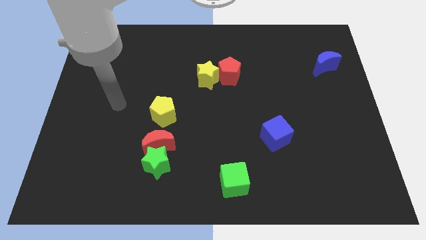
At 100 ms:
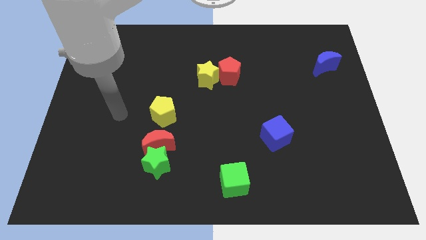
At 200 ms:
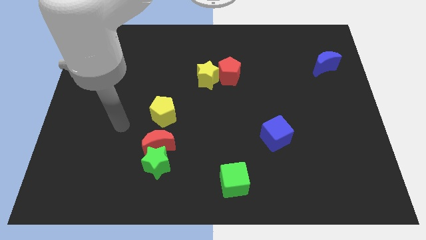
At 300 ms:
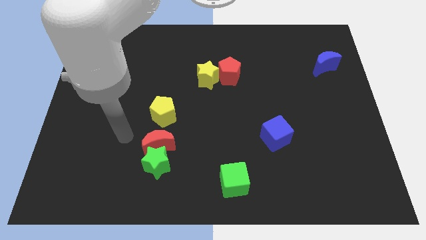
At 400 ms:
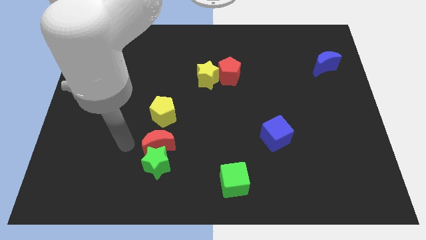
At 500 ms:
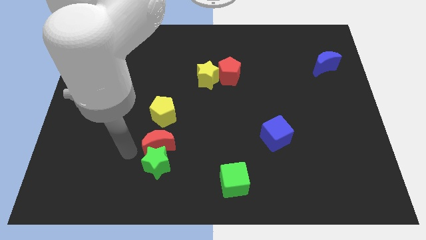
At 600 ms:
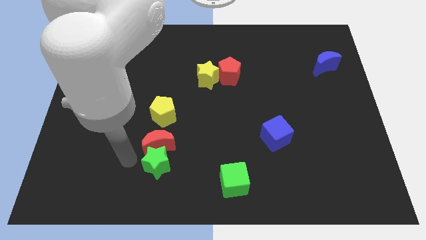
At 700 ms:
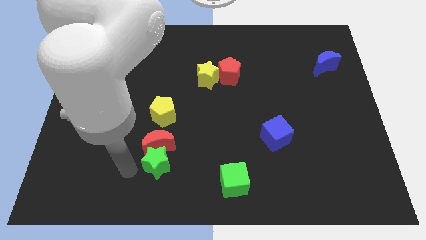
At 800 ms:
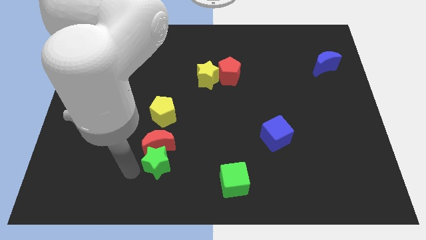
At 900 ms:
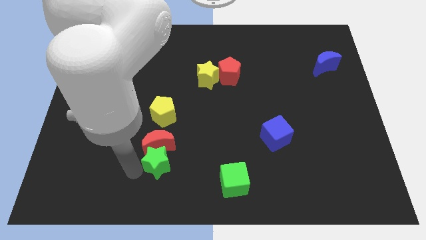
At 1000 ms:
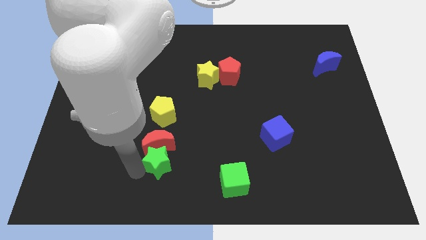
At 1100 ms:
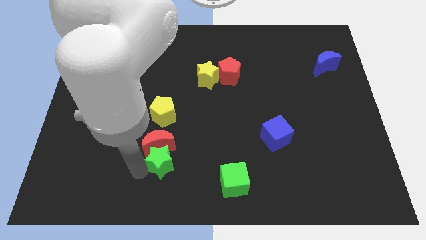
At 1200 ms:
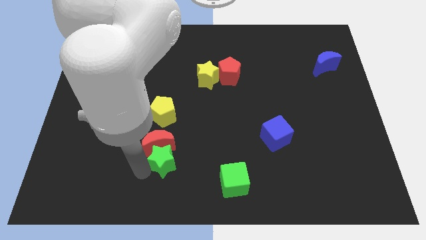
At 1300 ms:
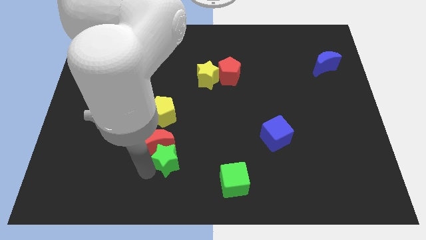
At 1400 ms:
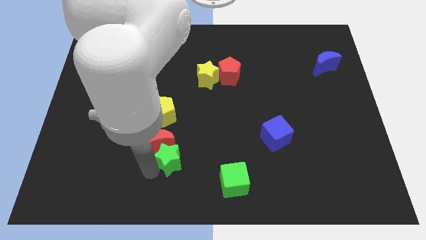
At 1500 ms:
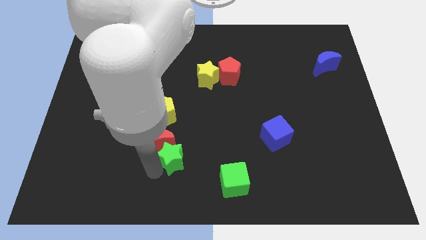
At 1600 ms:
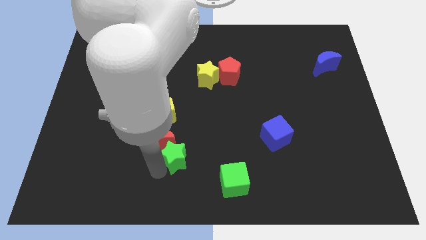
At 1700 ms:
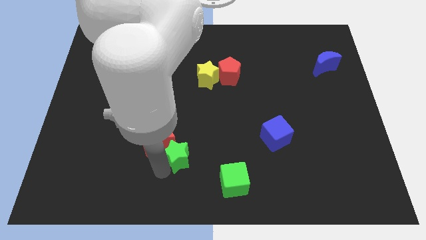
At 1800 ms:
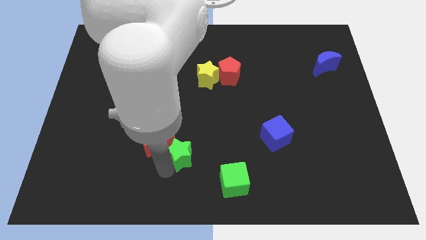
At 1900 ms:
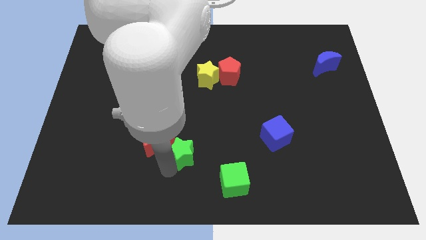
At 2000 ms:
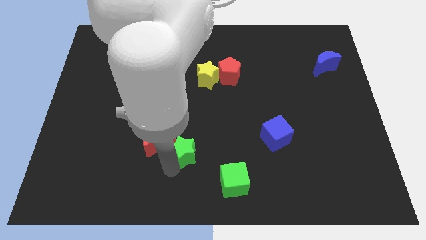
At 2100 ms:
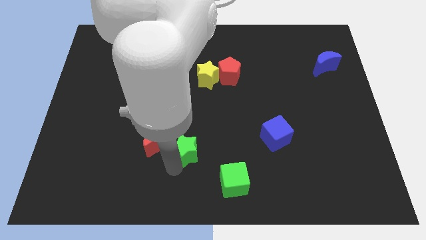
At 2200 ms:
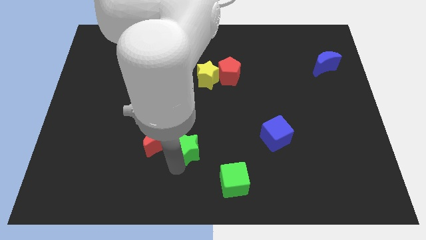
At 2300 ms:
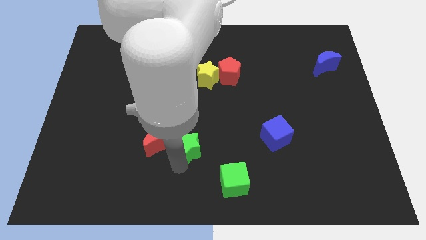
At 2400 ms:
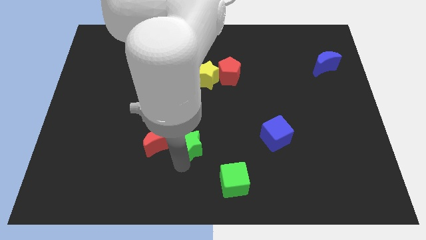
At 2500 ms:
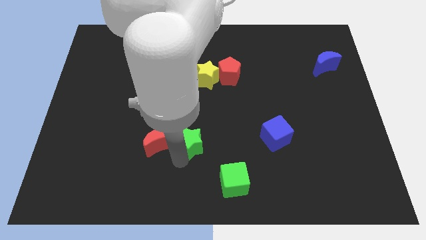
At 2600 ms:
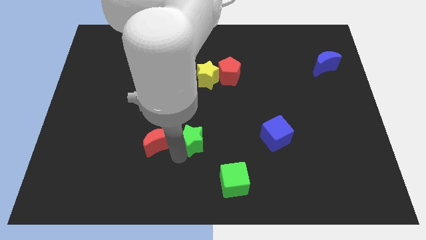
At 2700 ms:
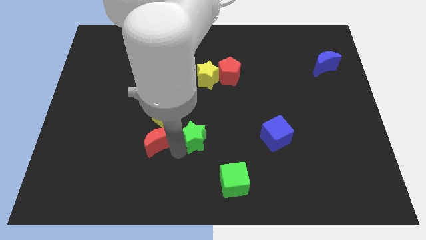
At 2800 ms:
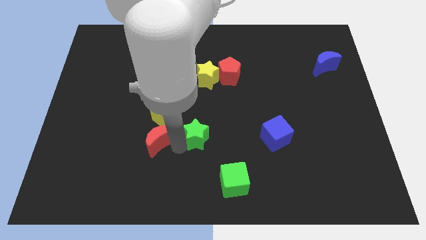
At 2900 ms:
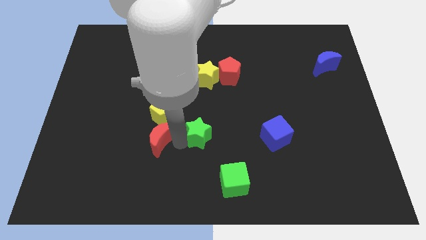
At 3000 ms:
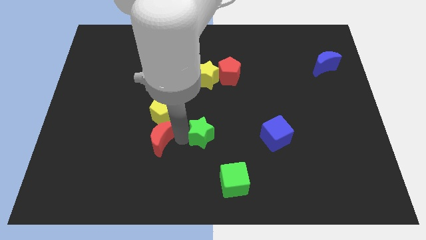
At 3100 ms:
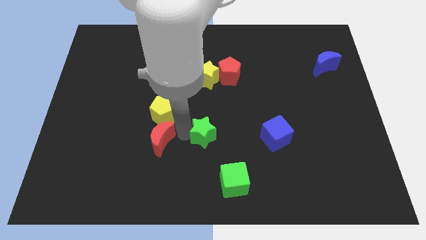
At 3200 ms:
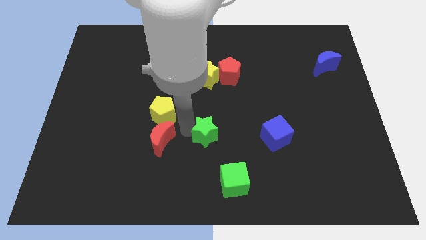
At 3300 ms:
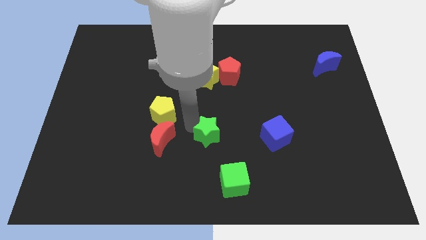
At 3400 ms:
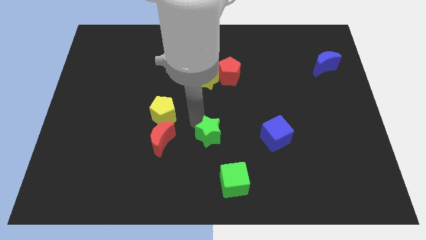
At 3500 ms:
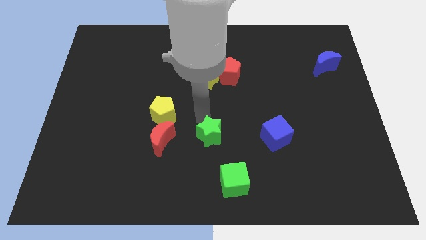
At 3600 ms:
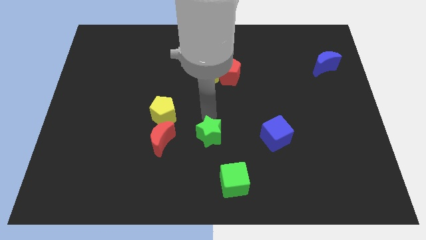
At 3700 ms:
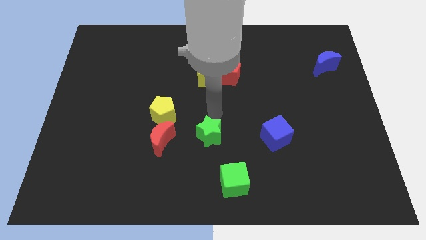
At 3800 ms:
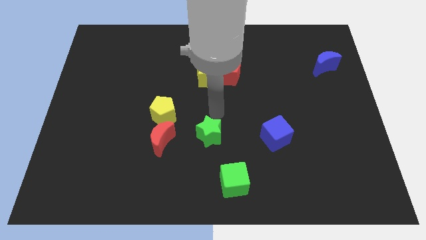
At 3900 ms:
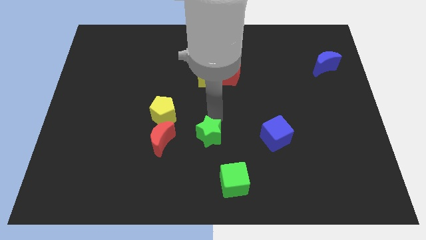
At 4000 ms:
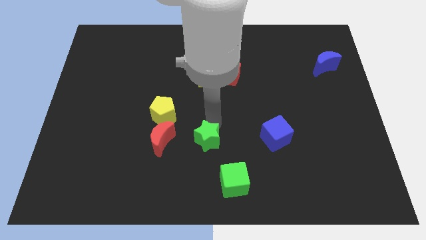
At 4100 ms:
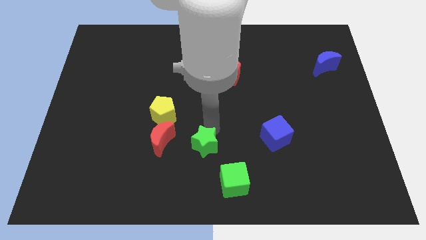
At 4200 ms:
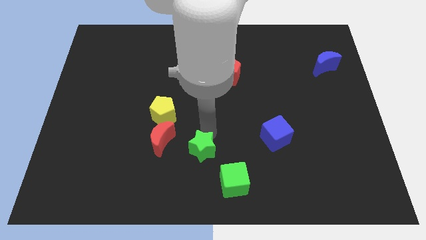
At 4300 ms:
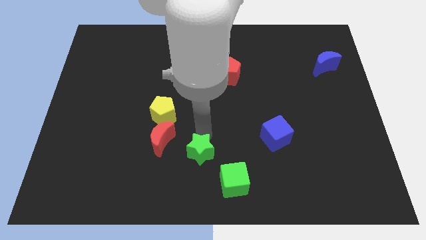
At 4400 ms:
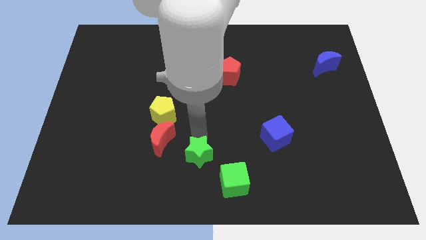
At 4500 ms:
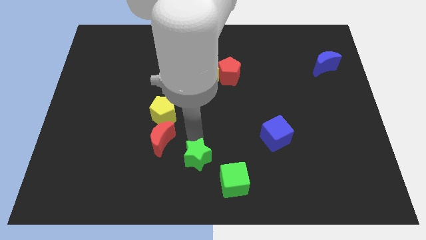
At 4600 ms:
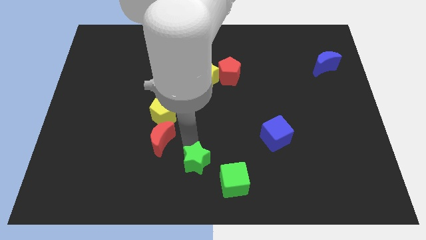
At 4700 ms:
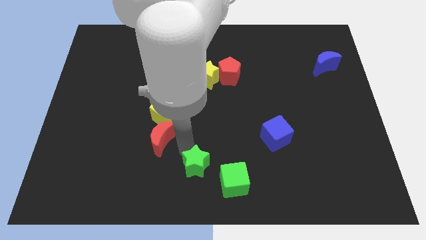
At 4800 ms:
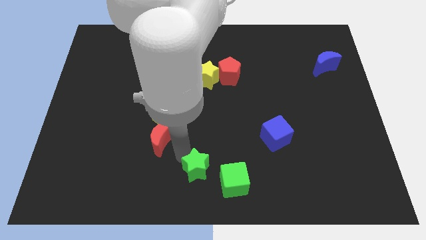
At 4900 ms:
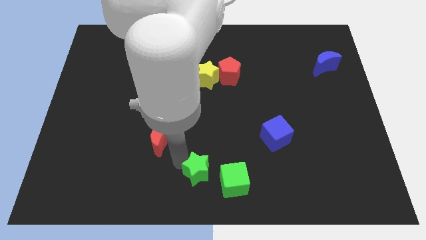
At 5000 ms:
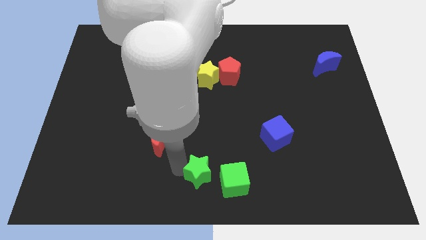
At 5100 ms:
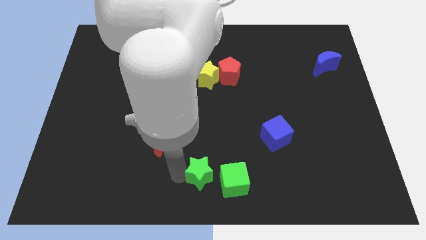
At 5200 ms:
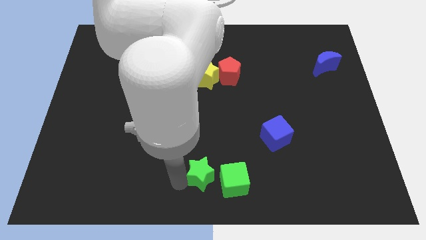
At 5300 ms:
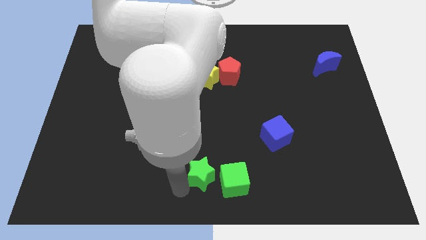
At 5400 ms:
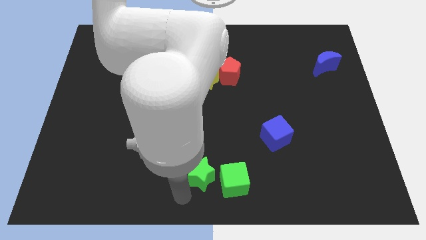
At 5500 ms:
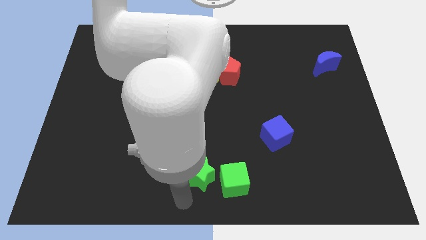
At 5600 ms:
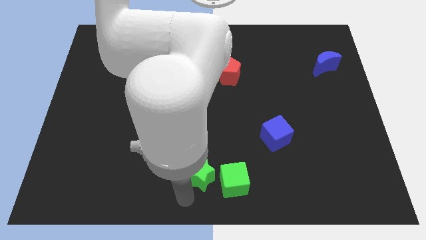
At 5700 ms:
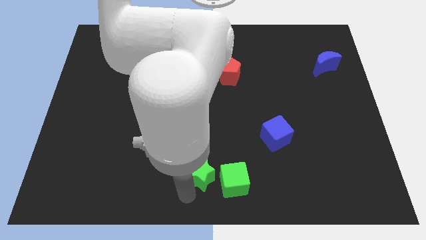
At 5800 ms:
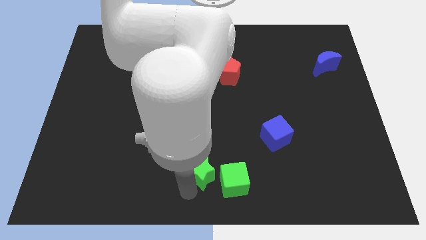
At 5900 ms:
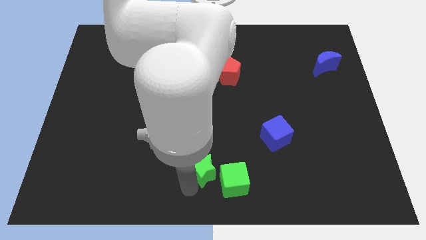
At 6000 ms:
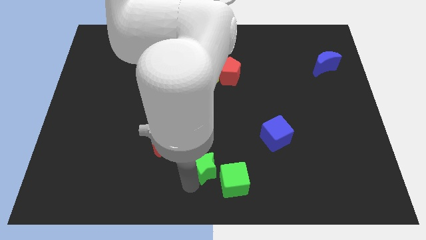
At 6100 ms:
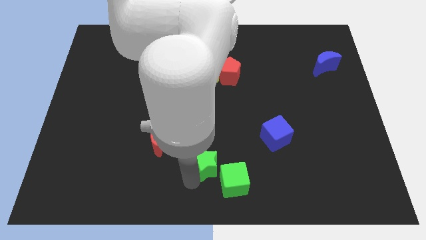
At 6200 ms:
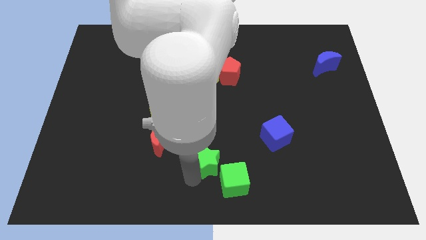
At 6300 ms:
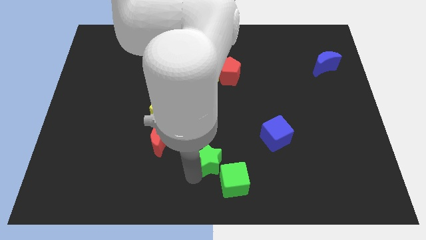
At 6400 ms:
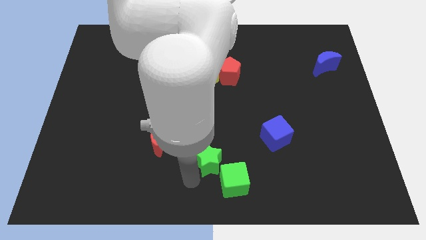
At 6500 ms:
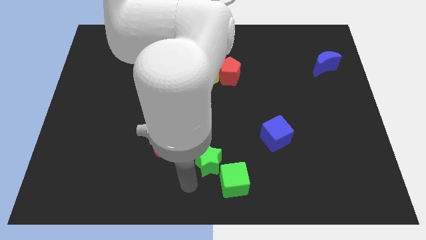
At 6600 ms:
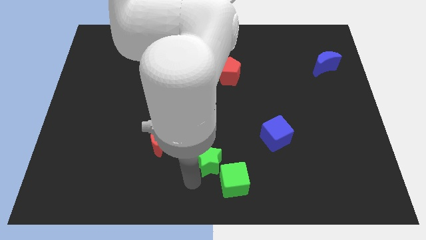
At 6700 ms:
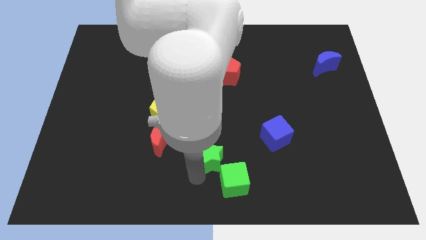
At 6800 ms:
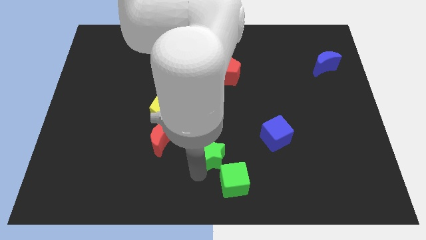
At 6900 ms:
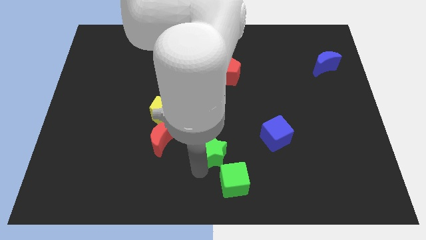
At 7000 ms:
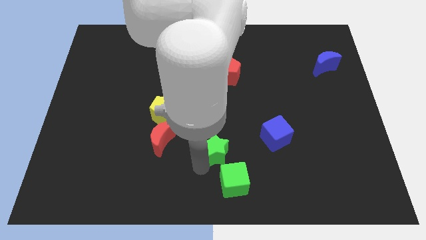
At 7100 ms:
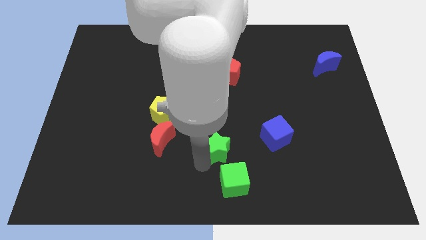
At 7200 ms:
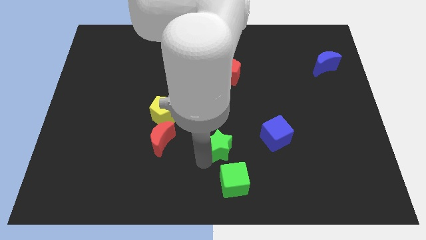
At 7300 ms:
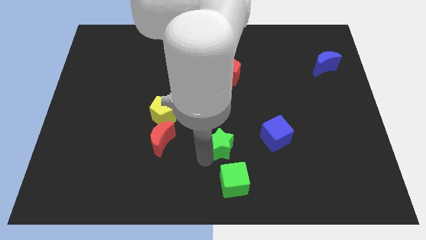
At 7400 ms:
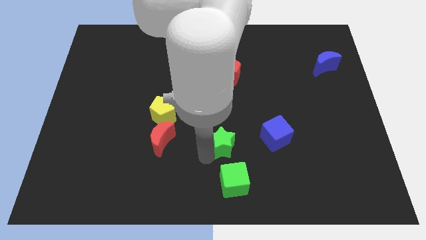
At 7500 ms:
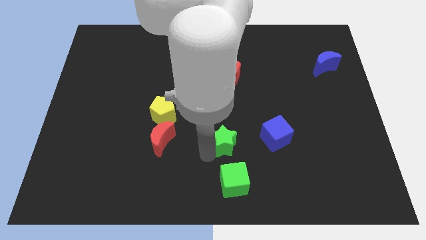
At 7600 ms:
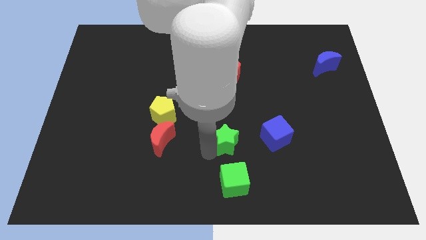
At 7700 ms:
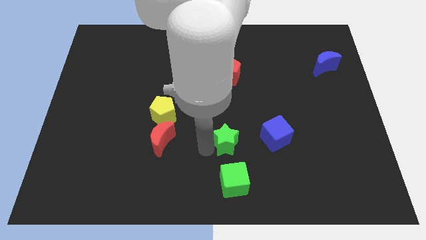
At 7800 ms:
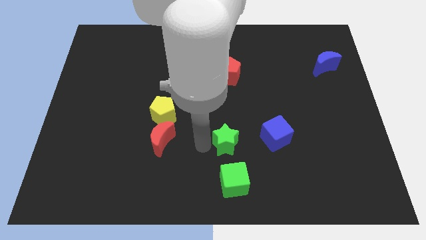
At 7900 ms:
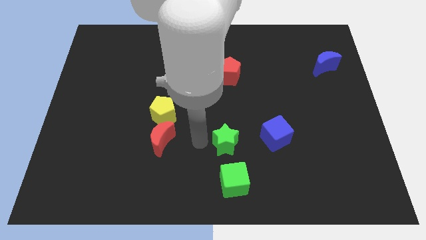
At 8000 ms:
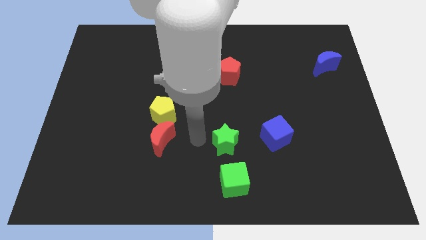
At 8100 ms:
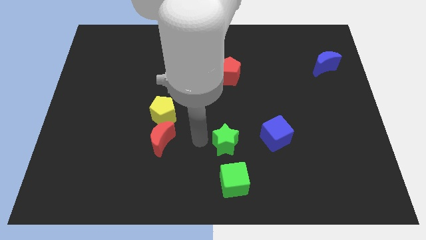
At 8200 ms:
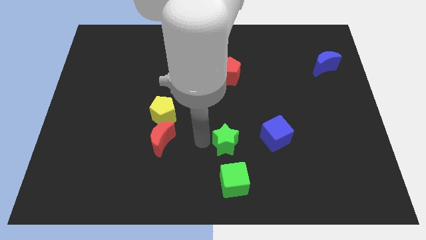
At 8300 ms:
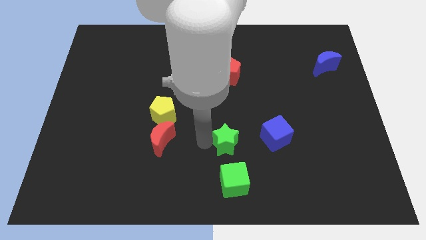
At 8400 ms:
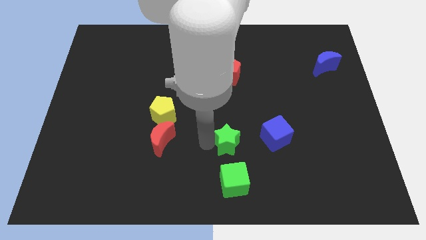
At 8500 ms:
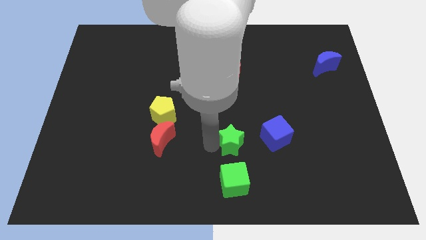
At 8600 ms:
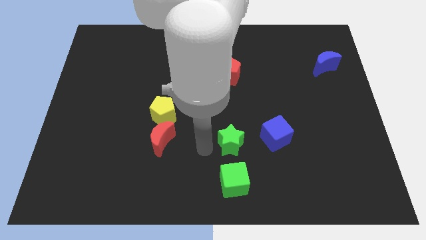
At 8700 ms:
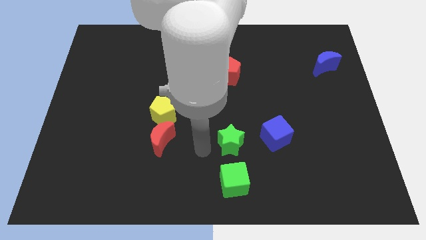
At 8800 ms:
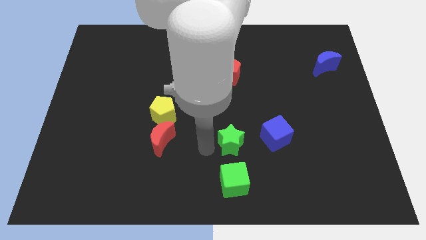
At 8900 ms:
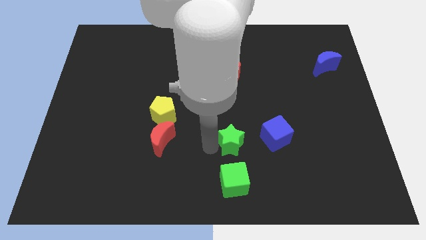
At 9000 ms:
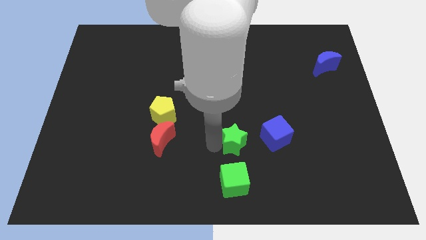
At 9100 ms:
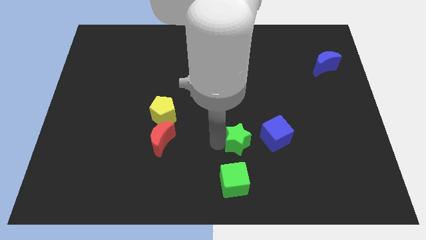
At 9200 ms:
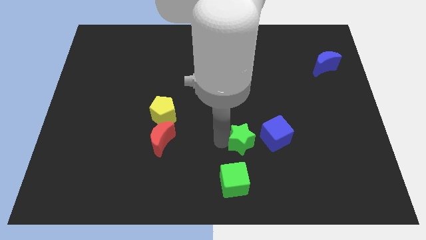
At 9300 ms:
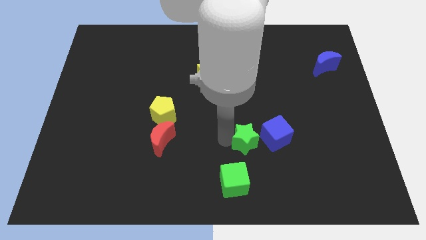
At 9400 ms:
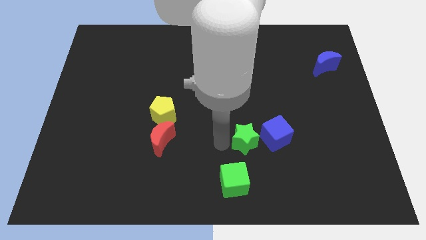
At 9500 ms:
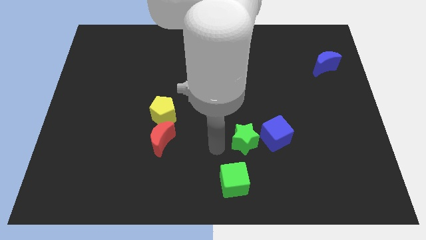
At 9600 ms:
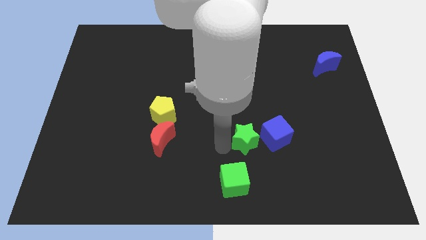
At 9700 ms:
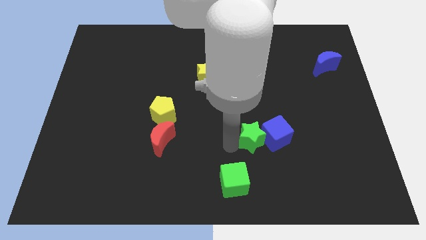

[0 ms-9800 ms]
slide the green star towards the blue cube
